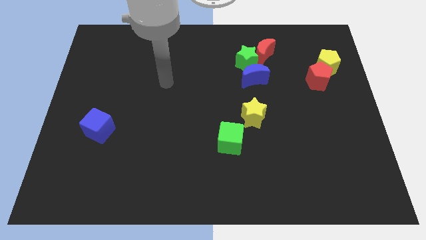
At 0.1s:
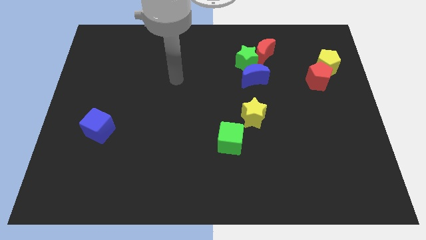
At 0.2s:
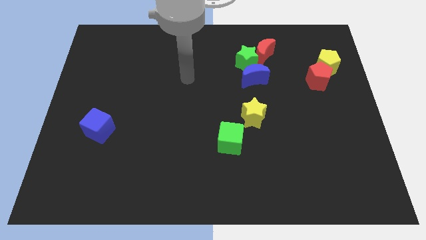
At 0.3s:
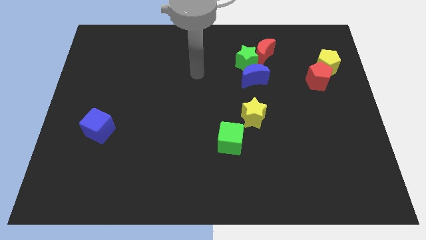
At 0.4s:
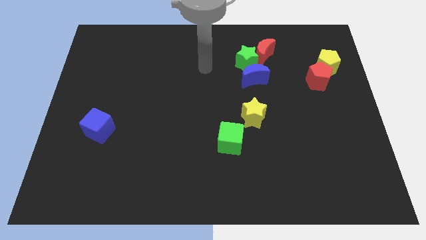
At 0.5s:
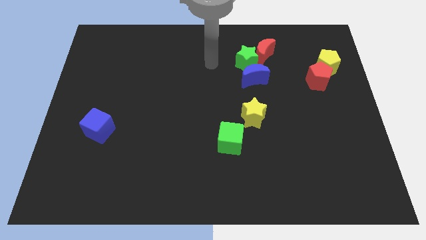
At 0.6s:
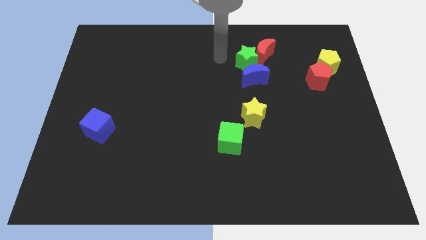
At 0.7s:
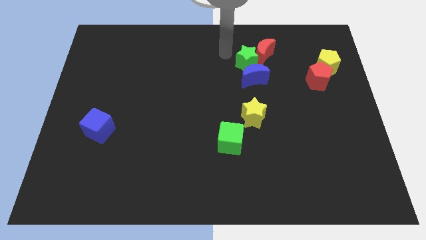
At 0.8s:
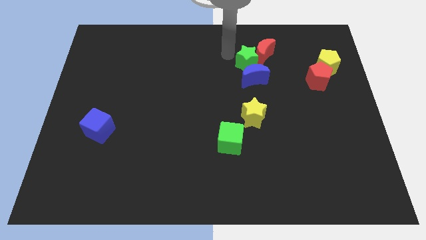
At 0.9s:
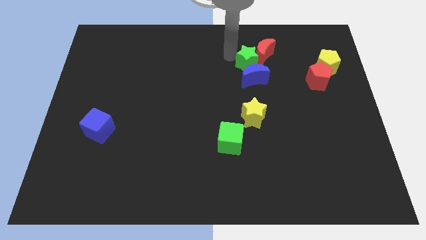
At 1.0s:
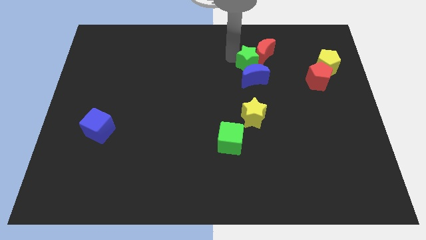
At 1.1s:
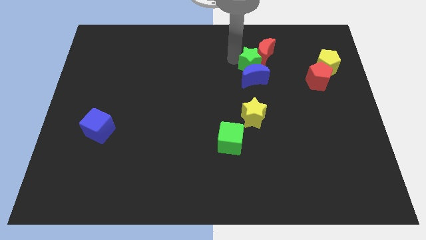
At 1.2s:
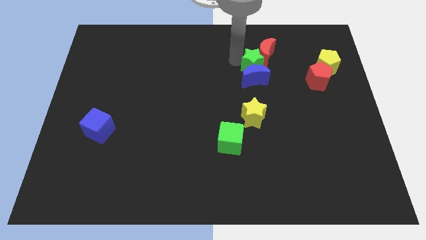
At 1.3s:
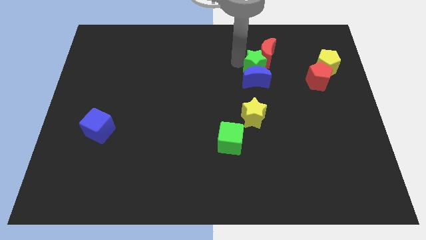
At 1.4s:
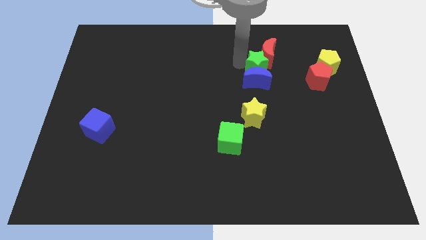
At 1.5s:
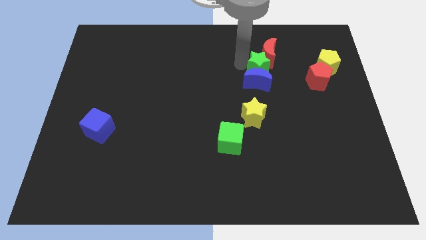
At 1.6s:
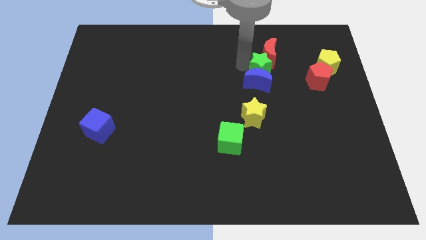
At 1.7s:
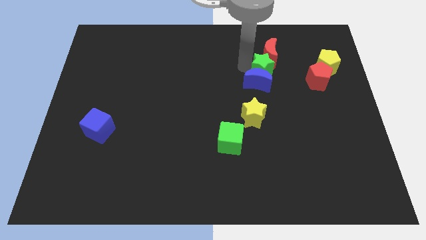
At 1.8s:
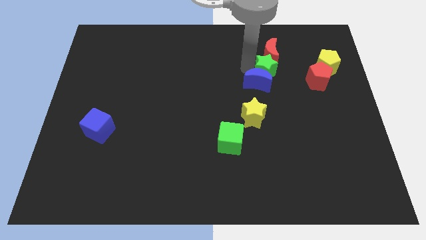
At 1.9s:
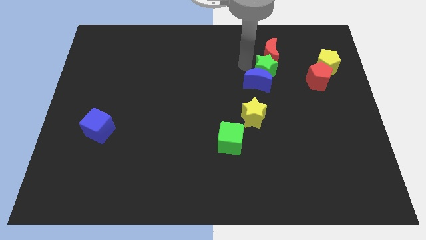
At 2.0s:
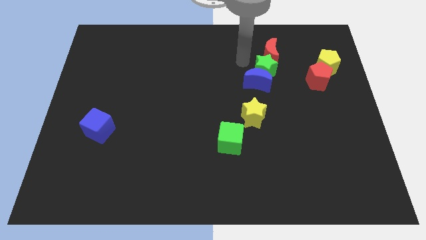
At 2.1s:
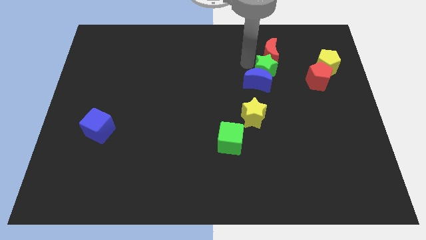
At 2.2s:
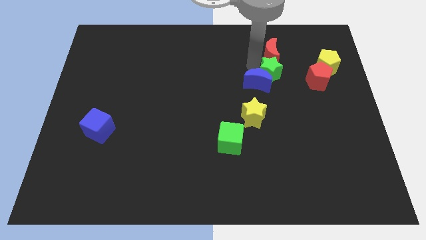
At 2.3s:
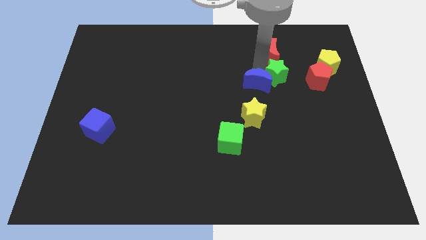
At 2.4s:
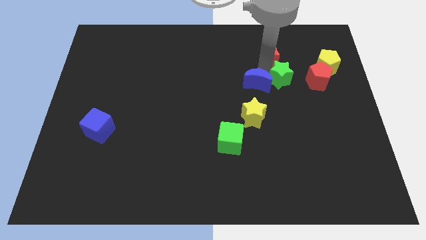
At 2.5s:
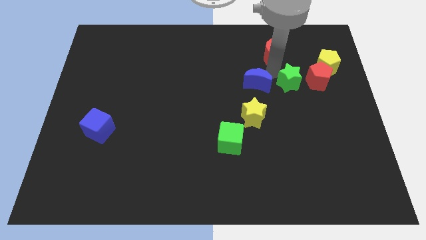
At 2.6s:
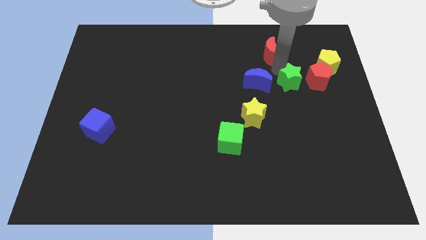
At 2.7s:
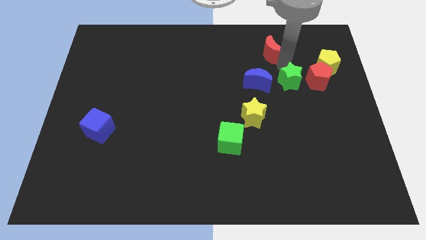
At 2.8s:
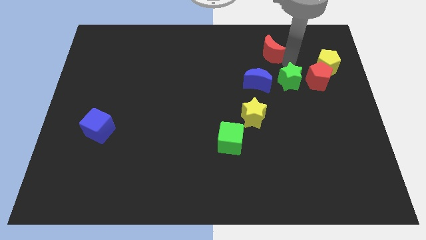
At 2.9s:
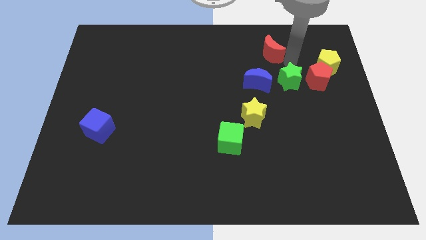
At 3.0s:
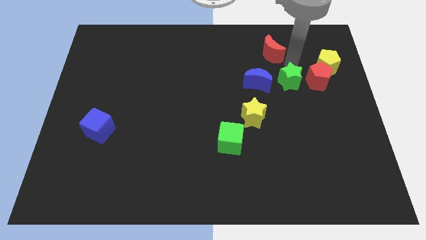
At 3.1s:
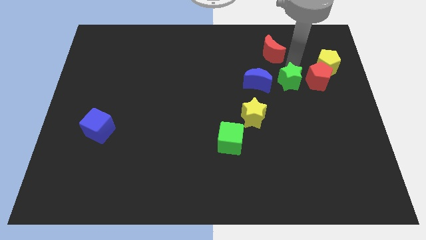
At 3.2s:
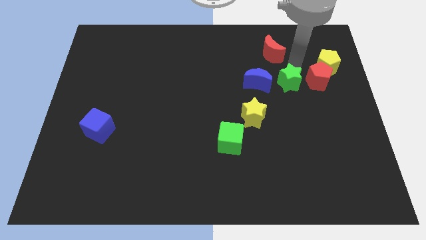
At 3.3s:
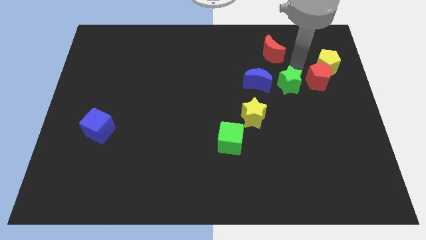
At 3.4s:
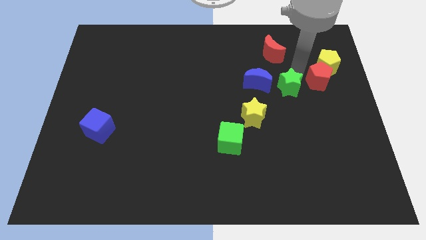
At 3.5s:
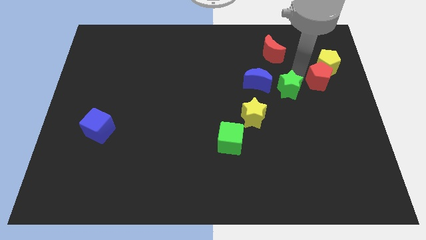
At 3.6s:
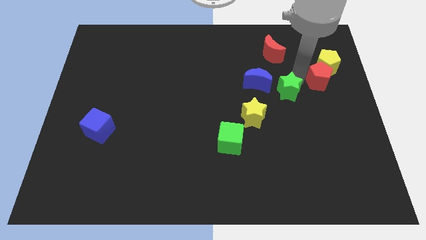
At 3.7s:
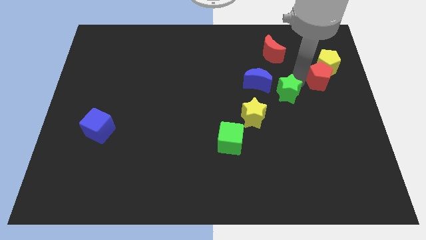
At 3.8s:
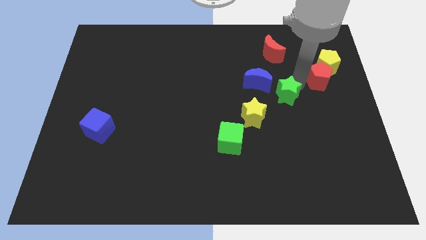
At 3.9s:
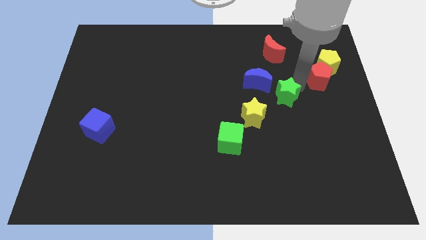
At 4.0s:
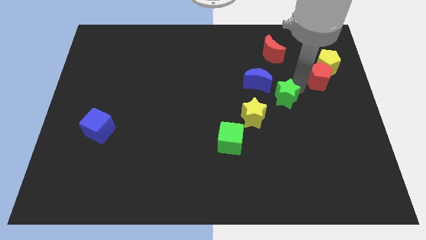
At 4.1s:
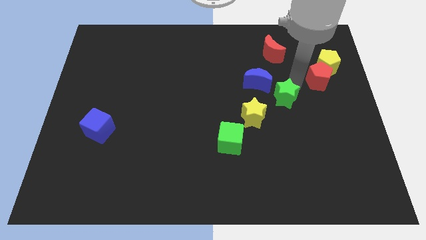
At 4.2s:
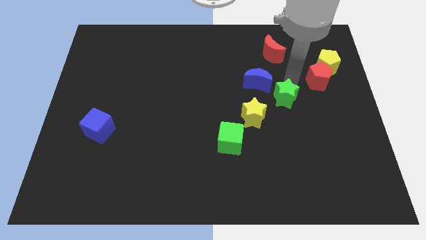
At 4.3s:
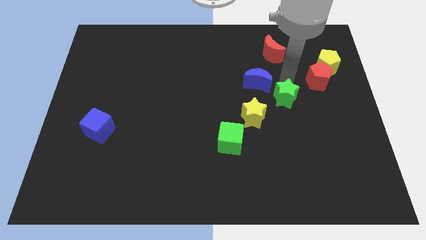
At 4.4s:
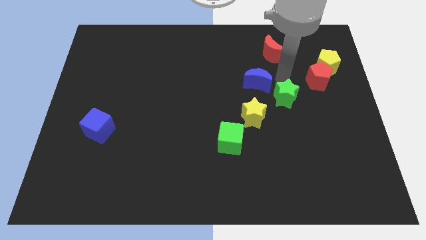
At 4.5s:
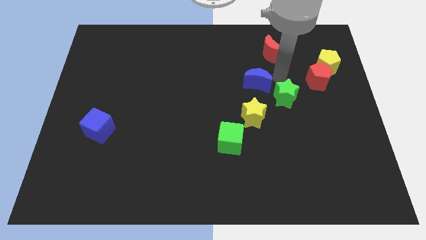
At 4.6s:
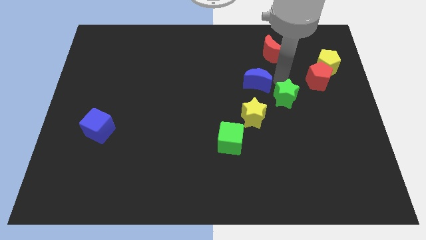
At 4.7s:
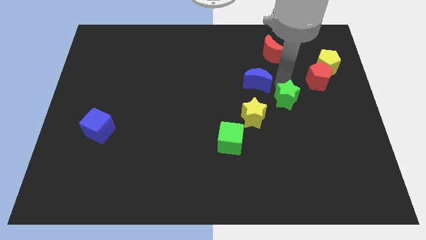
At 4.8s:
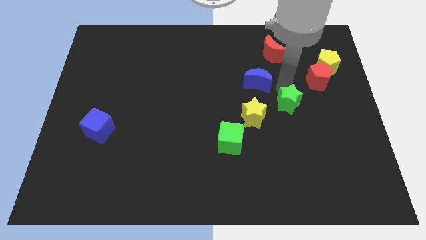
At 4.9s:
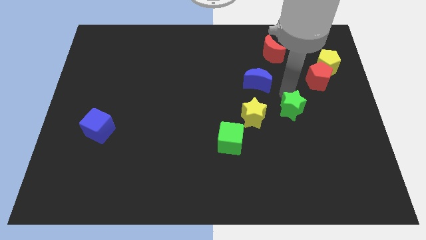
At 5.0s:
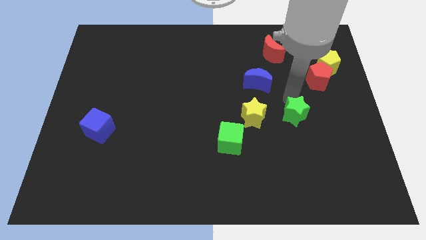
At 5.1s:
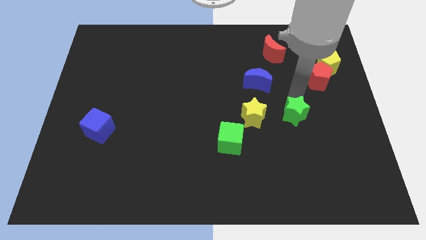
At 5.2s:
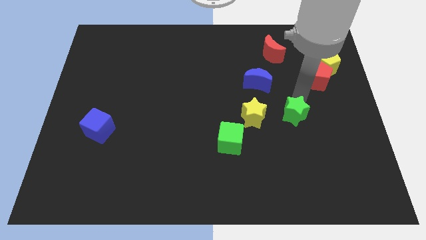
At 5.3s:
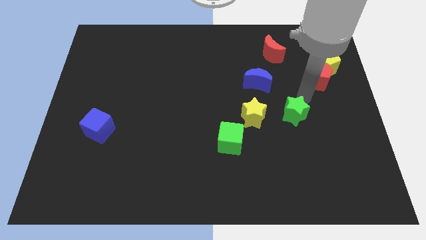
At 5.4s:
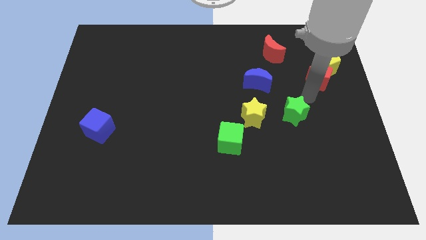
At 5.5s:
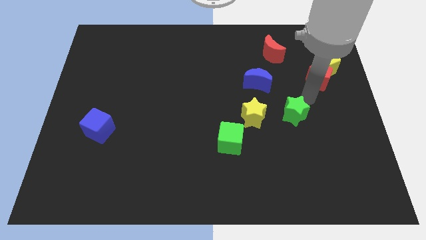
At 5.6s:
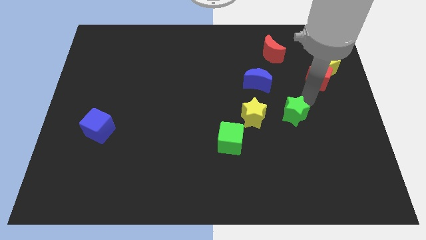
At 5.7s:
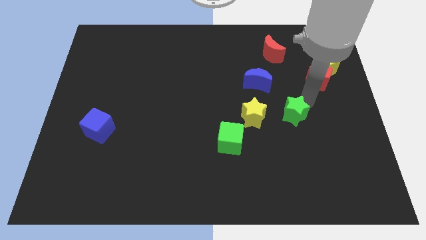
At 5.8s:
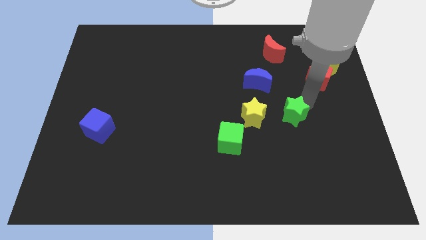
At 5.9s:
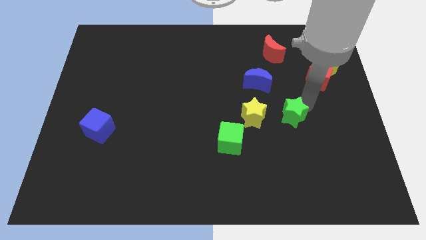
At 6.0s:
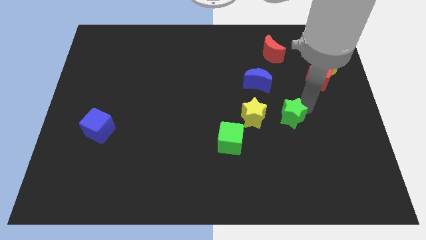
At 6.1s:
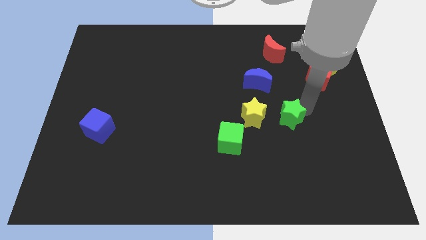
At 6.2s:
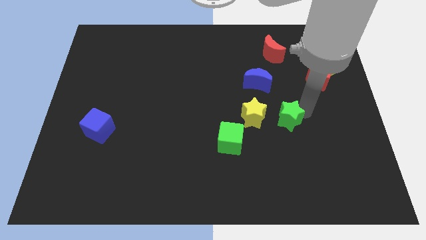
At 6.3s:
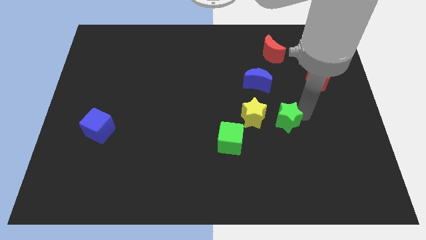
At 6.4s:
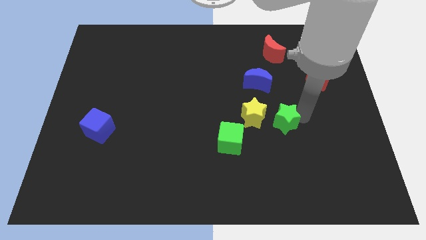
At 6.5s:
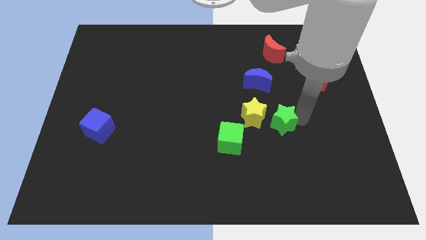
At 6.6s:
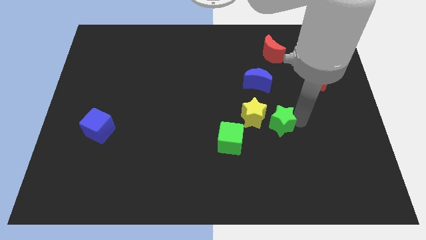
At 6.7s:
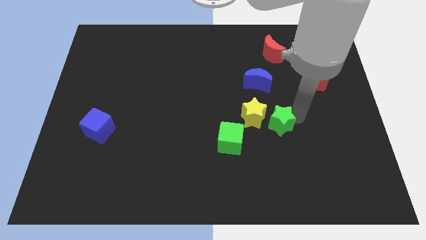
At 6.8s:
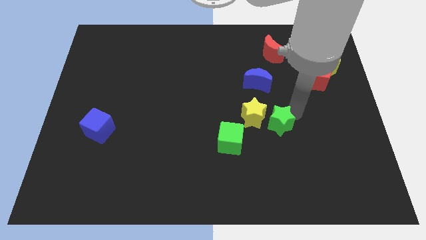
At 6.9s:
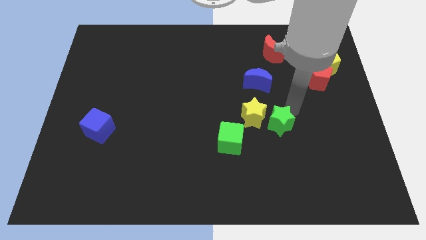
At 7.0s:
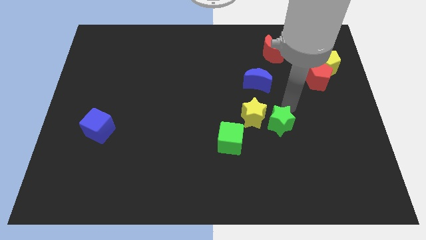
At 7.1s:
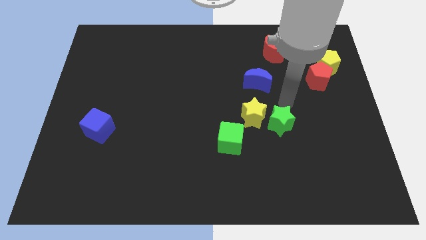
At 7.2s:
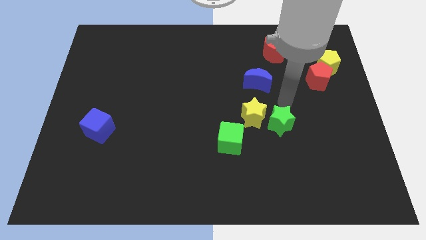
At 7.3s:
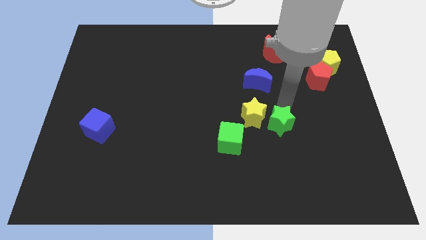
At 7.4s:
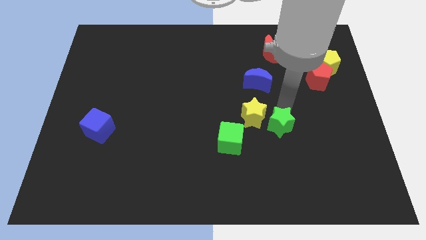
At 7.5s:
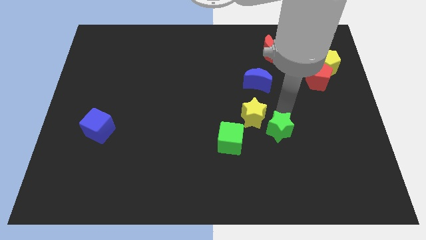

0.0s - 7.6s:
move the green star down
